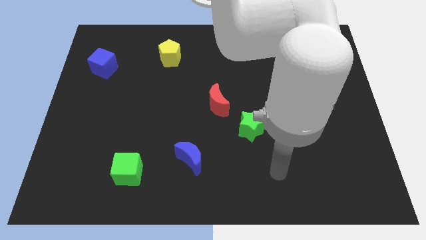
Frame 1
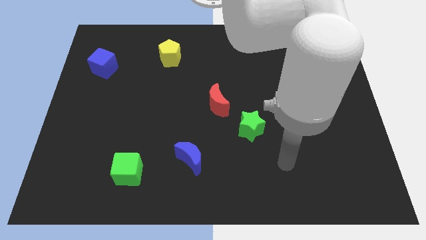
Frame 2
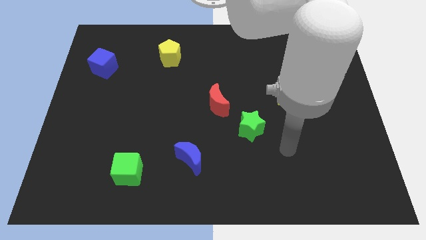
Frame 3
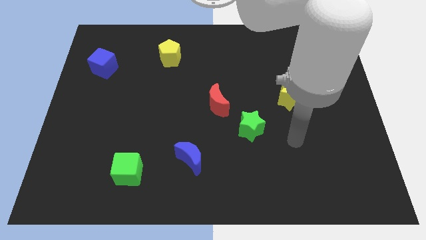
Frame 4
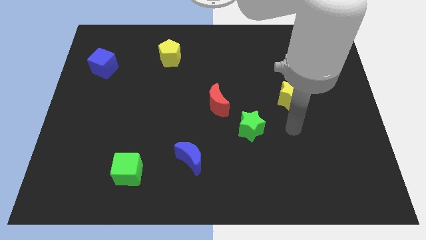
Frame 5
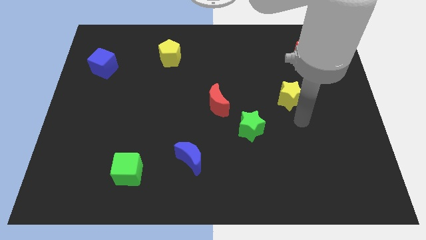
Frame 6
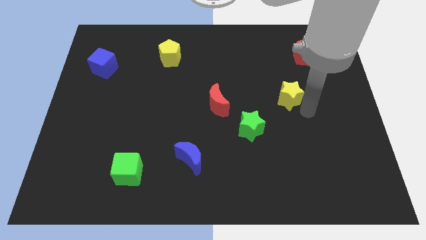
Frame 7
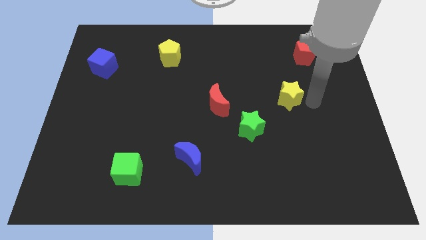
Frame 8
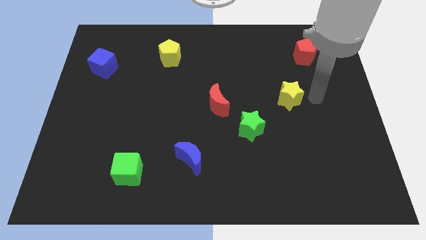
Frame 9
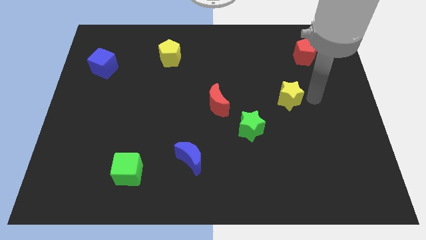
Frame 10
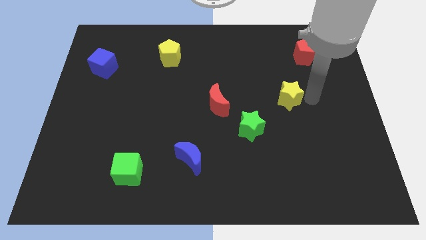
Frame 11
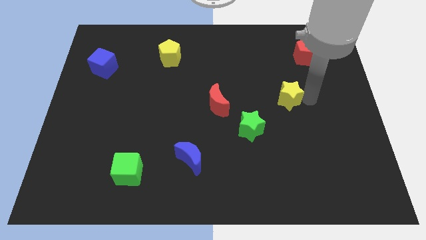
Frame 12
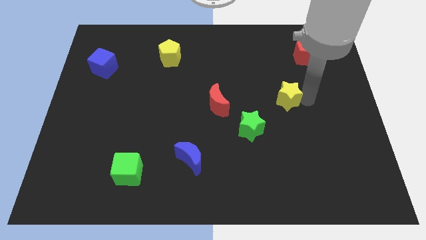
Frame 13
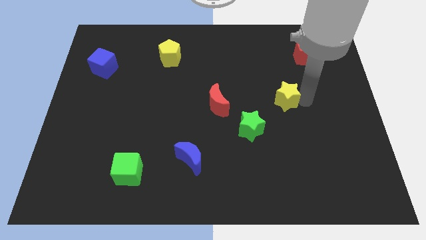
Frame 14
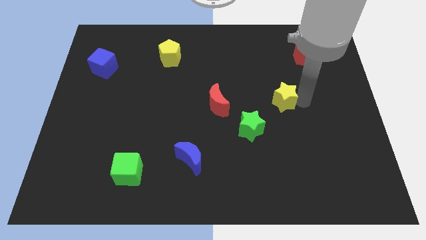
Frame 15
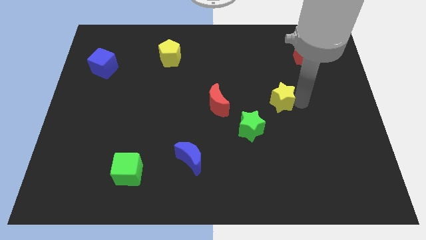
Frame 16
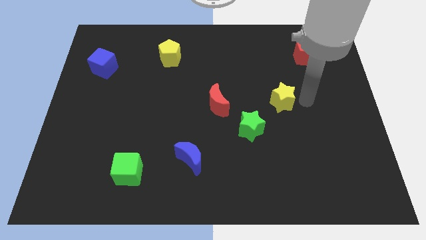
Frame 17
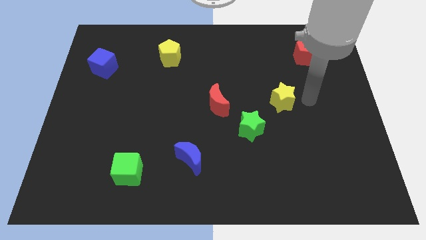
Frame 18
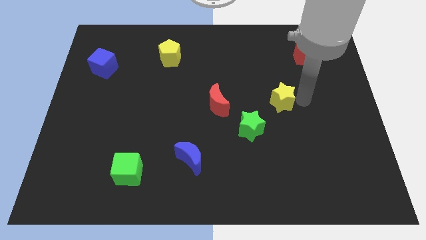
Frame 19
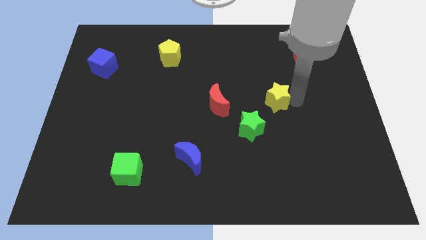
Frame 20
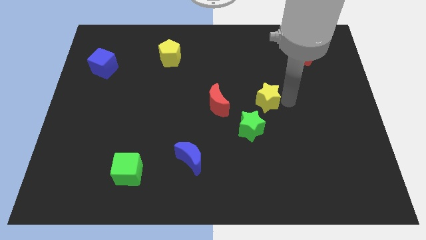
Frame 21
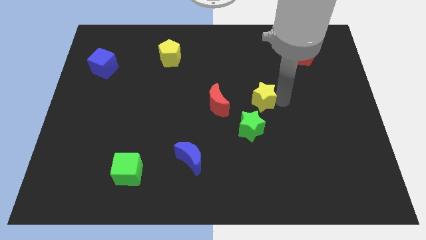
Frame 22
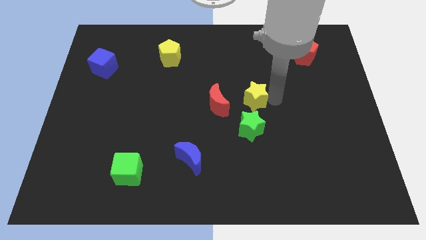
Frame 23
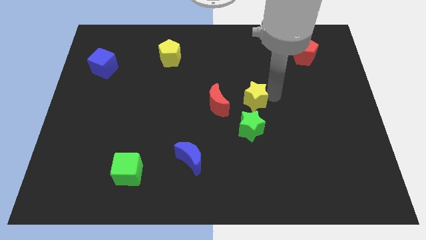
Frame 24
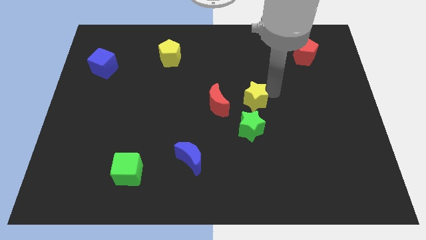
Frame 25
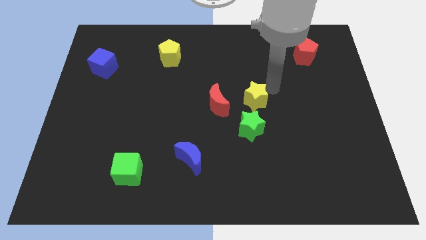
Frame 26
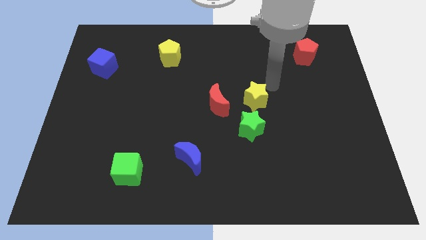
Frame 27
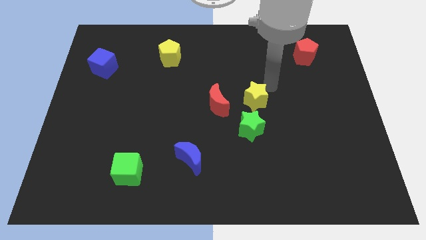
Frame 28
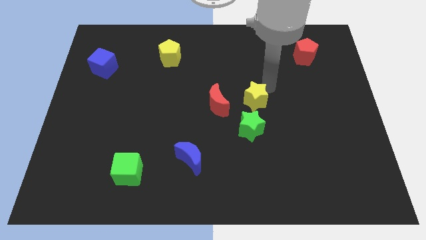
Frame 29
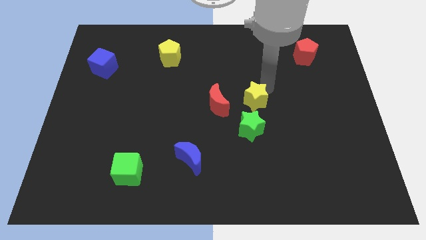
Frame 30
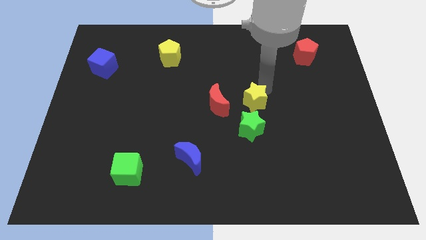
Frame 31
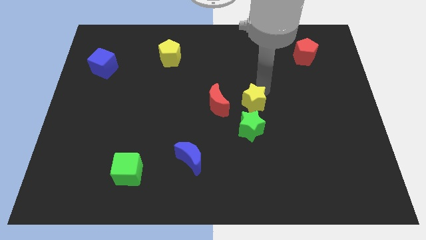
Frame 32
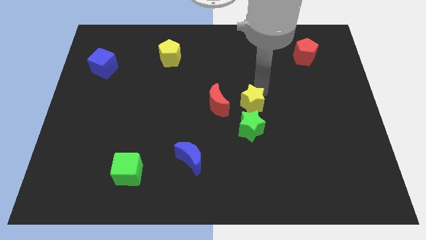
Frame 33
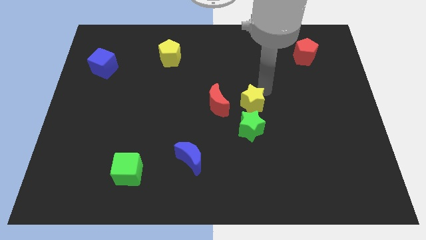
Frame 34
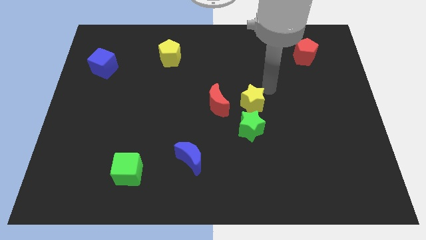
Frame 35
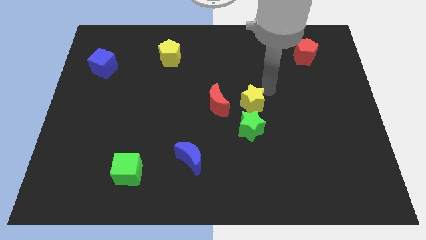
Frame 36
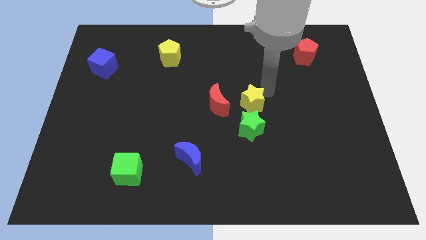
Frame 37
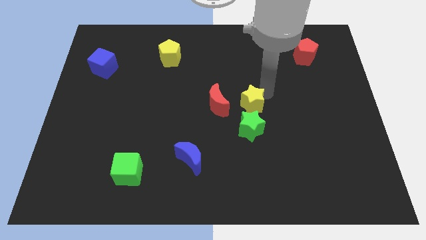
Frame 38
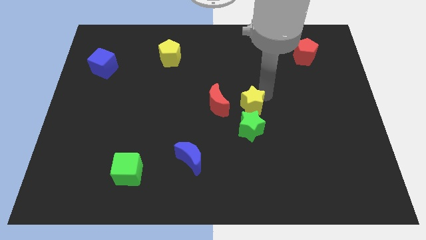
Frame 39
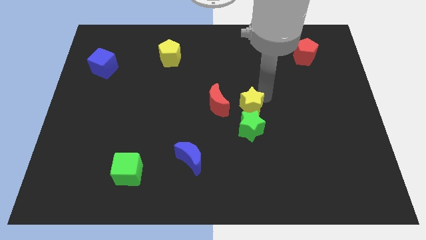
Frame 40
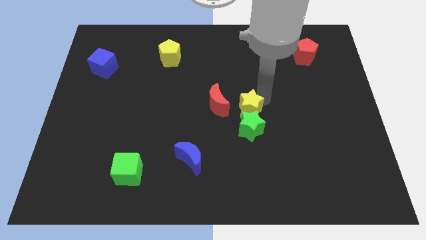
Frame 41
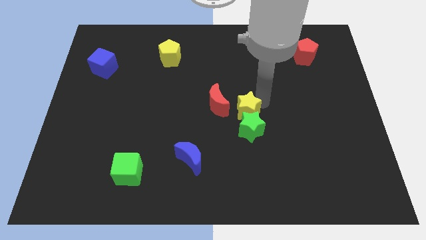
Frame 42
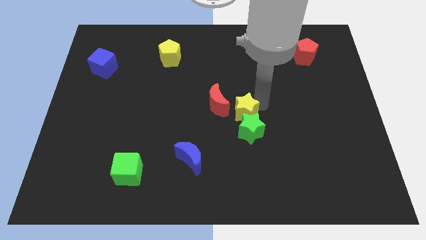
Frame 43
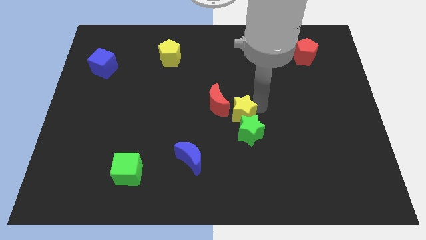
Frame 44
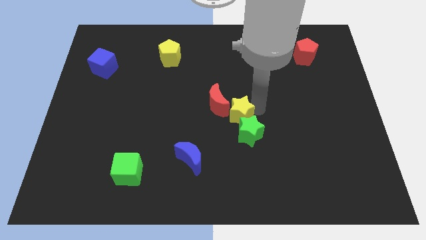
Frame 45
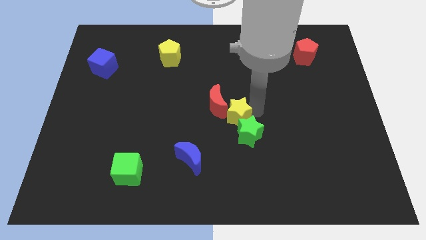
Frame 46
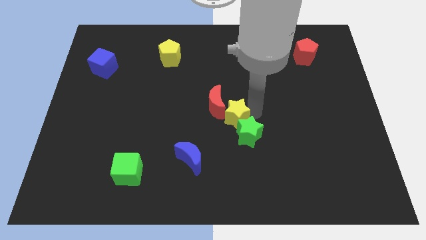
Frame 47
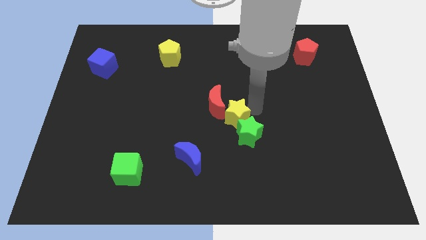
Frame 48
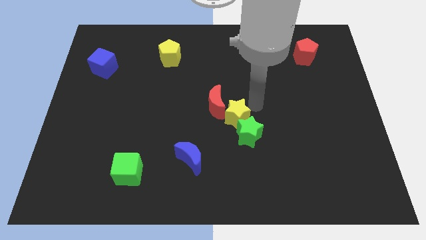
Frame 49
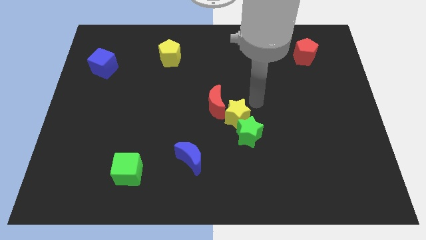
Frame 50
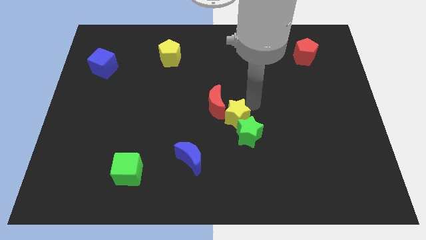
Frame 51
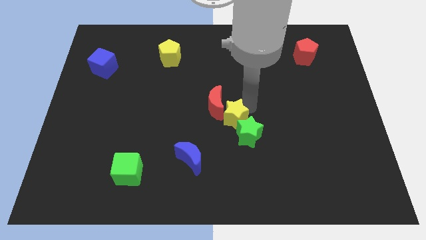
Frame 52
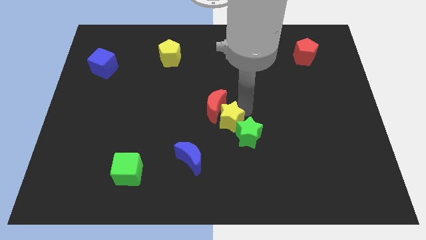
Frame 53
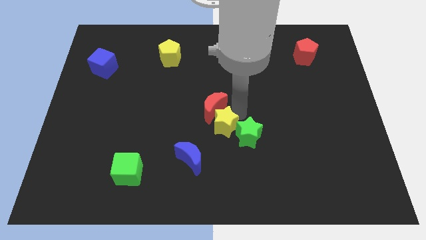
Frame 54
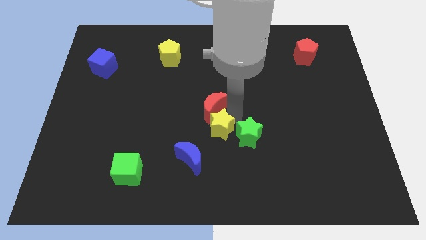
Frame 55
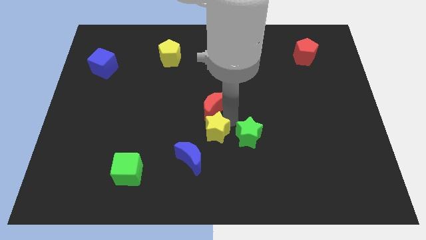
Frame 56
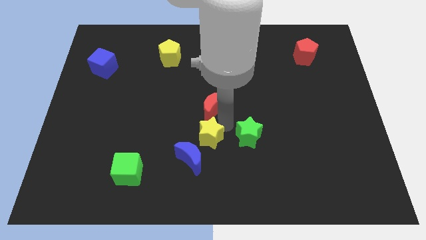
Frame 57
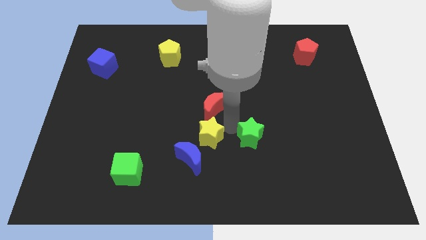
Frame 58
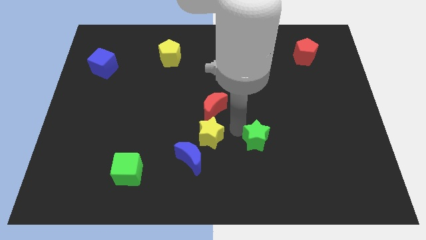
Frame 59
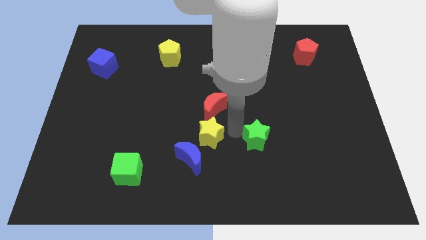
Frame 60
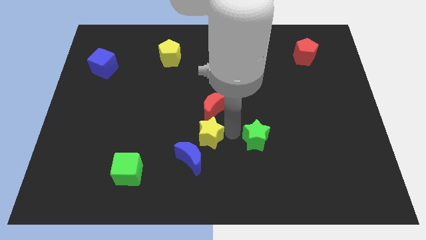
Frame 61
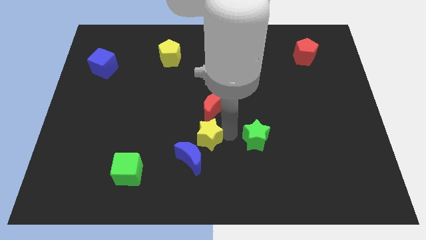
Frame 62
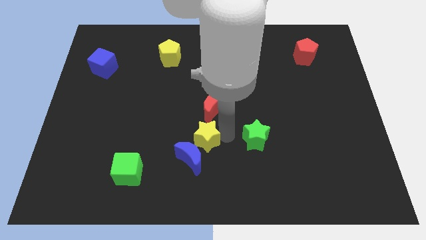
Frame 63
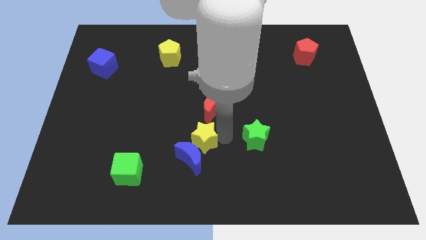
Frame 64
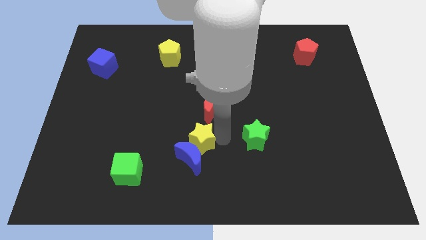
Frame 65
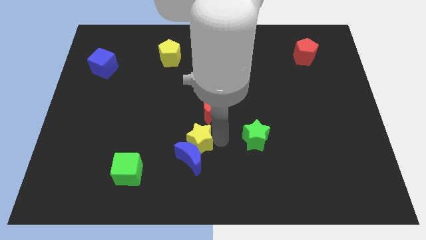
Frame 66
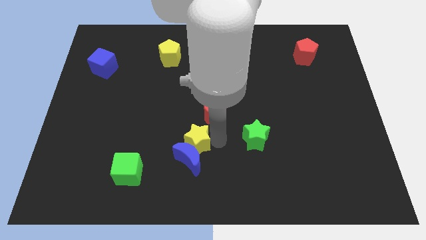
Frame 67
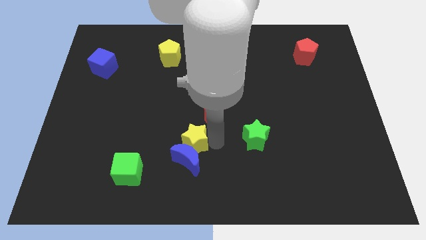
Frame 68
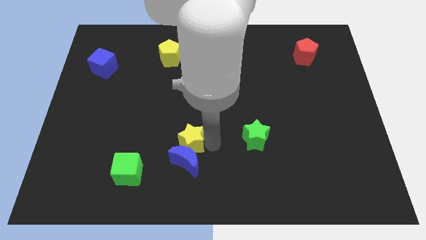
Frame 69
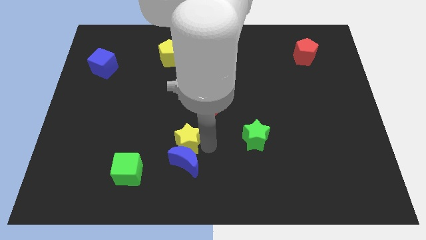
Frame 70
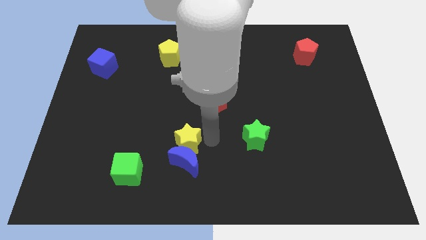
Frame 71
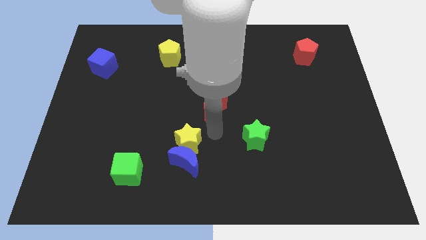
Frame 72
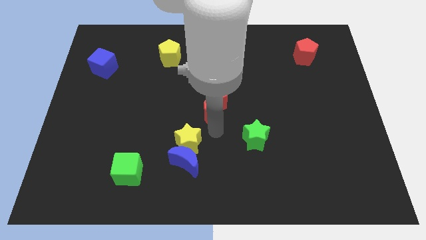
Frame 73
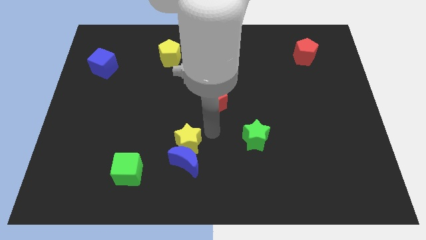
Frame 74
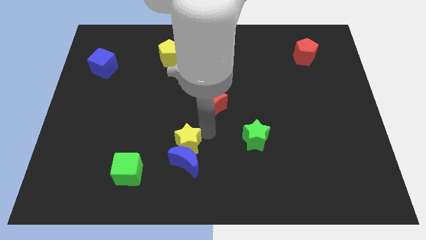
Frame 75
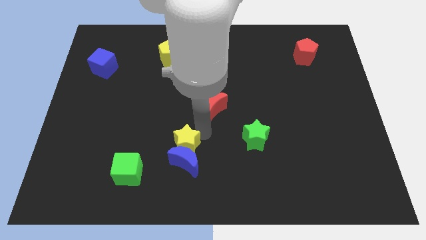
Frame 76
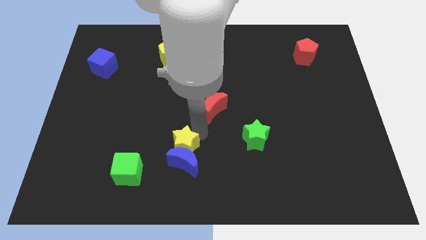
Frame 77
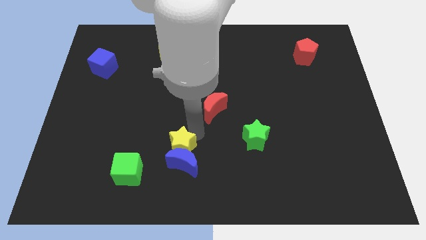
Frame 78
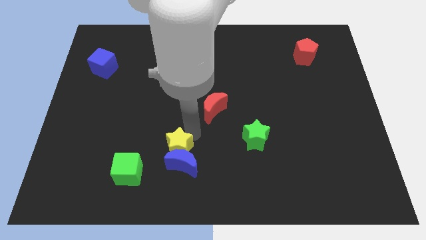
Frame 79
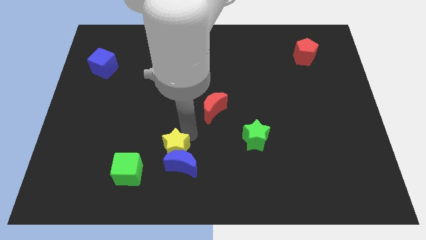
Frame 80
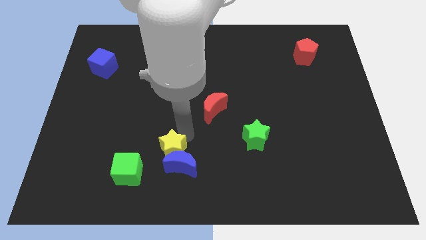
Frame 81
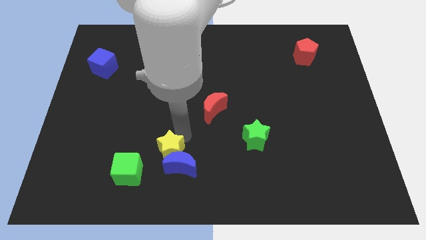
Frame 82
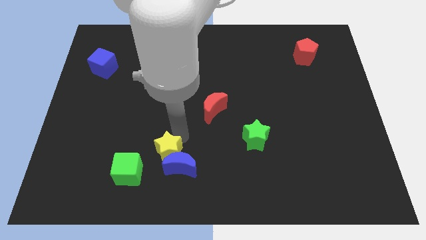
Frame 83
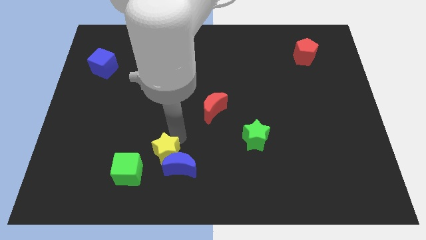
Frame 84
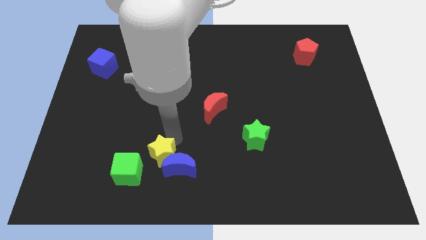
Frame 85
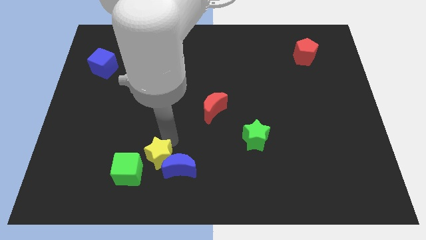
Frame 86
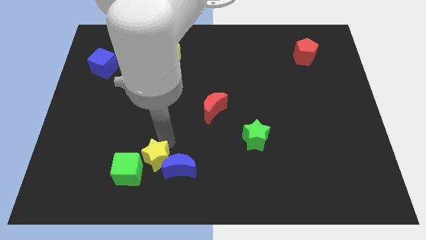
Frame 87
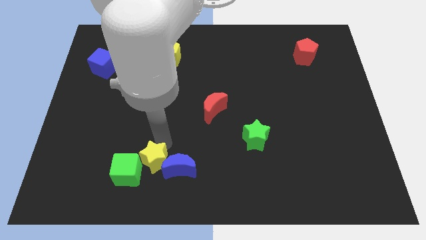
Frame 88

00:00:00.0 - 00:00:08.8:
put the yellow star close to the green cube
